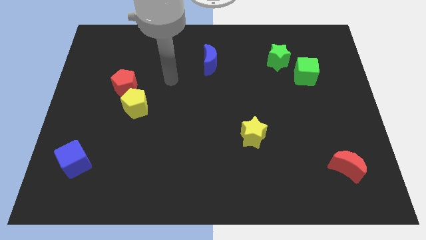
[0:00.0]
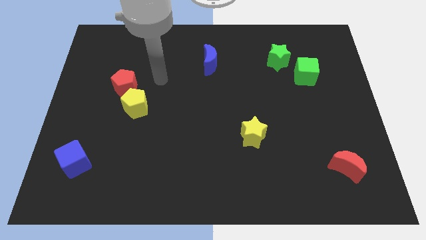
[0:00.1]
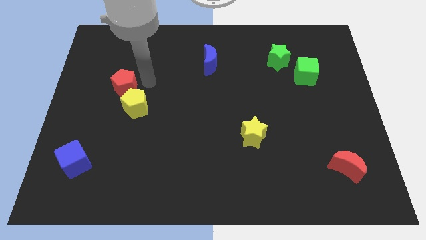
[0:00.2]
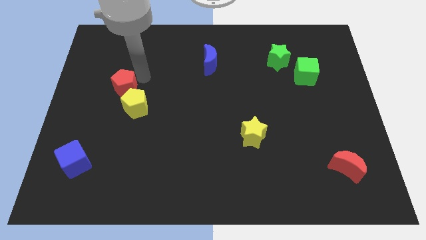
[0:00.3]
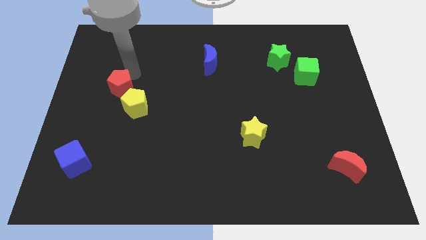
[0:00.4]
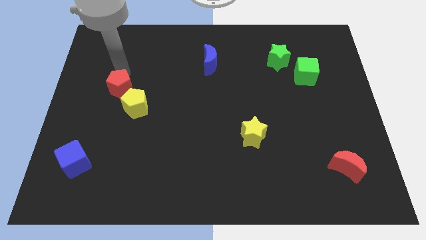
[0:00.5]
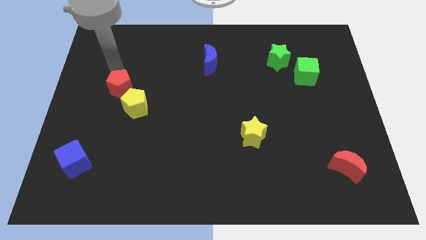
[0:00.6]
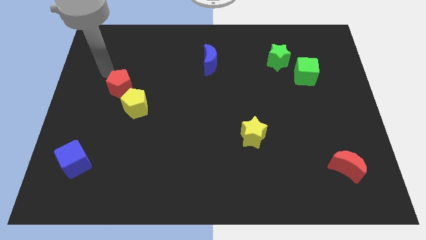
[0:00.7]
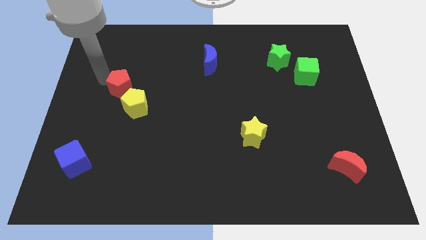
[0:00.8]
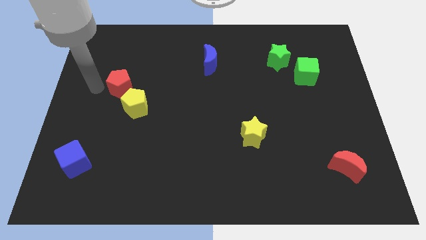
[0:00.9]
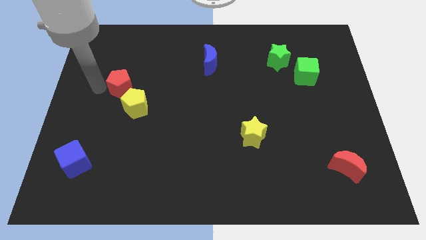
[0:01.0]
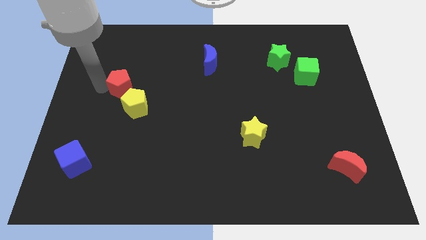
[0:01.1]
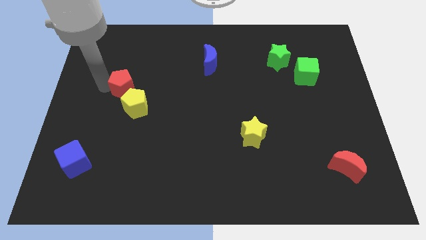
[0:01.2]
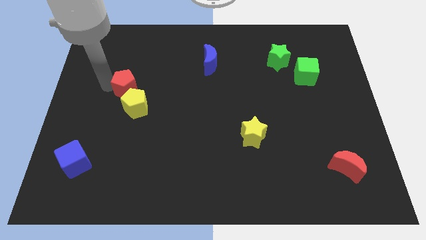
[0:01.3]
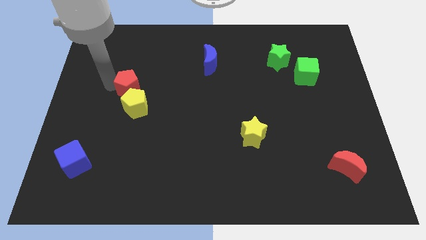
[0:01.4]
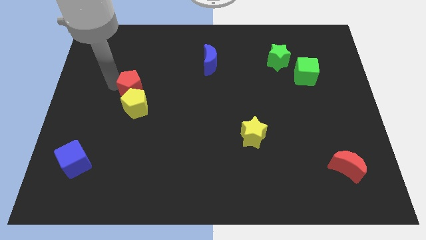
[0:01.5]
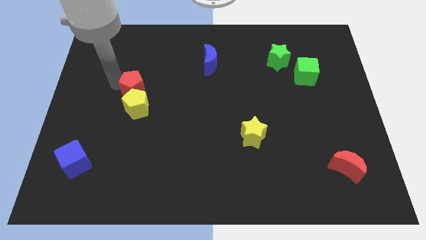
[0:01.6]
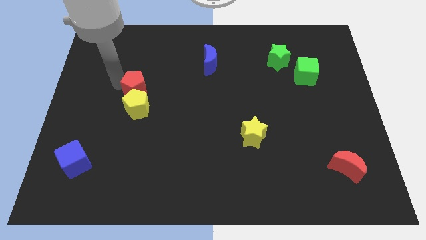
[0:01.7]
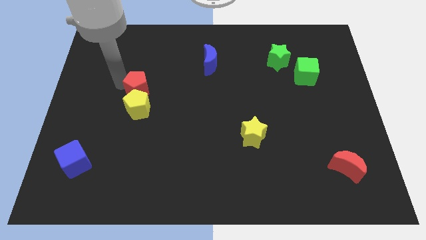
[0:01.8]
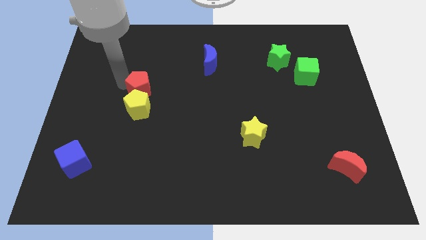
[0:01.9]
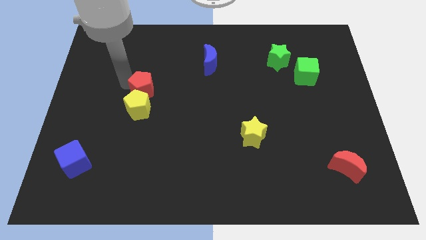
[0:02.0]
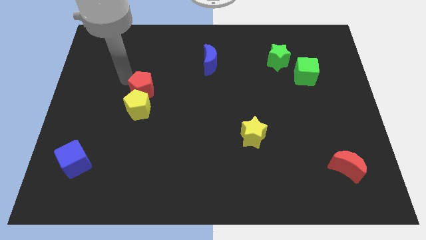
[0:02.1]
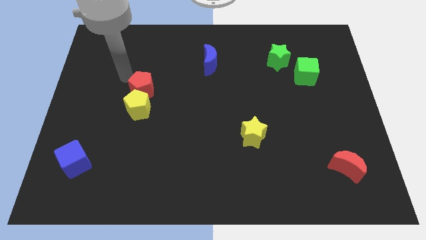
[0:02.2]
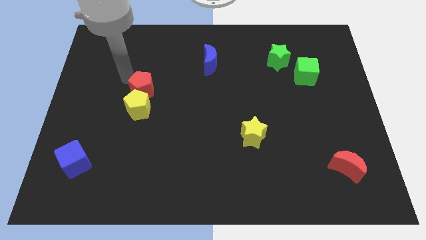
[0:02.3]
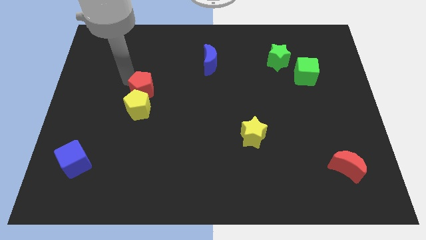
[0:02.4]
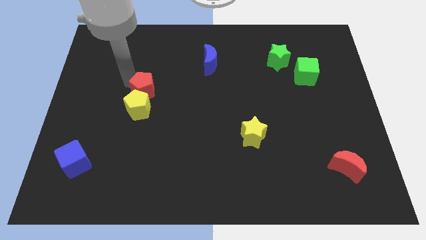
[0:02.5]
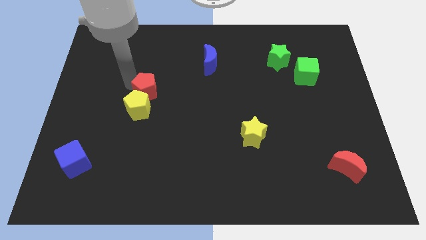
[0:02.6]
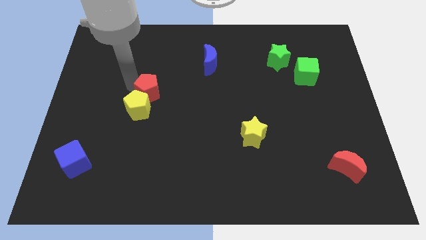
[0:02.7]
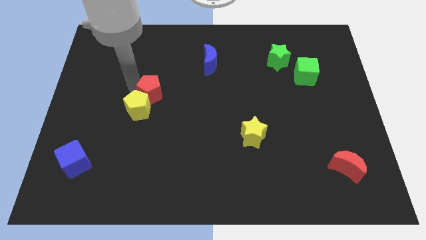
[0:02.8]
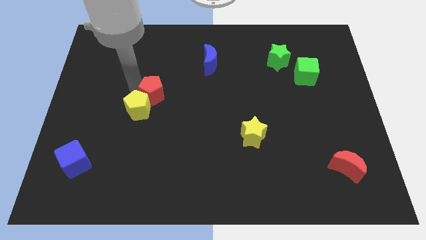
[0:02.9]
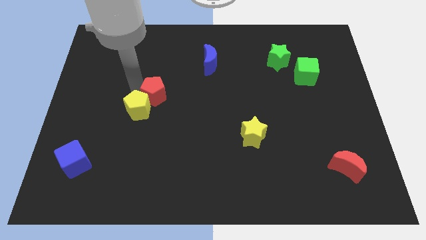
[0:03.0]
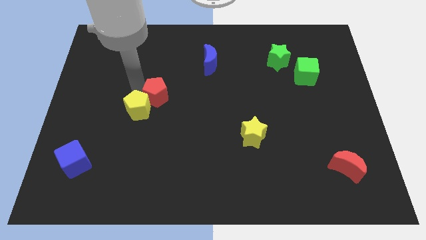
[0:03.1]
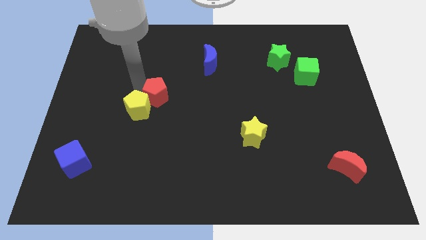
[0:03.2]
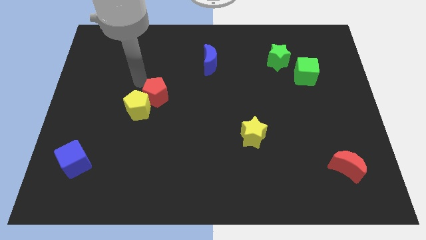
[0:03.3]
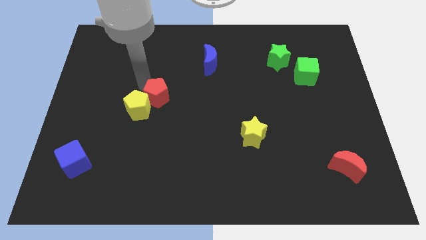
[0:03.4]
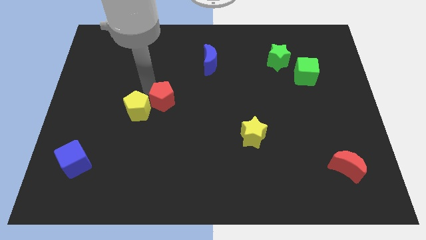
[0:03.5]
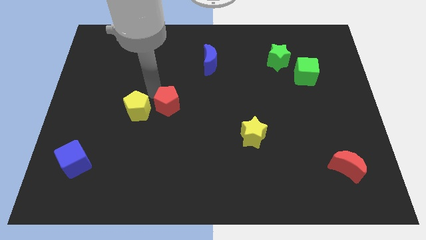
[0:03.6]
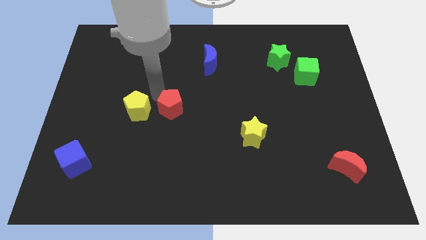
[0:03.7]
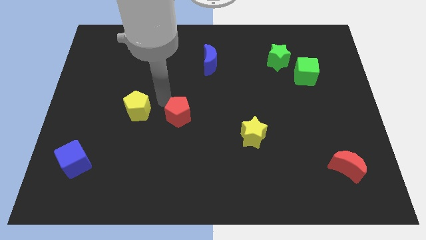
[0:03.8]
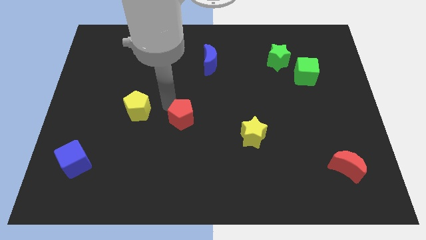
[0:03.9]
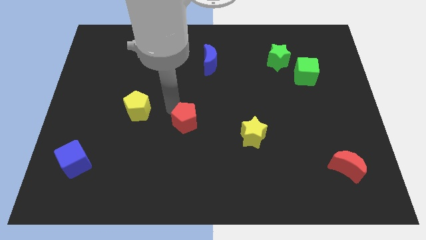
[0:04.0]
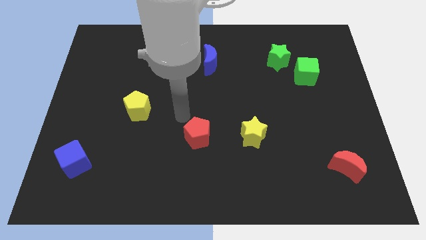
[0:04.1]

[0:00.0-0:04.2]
move the red pentagon down and right

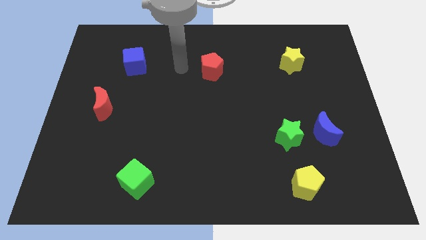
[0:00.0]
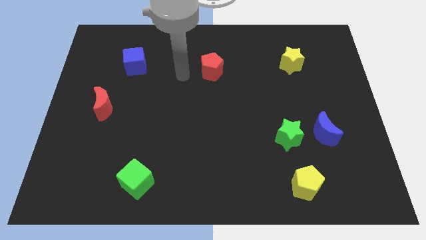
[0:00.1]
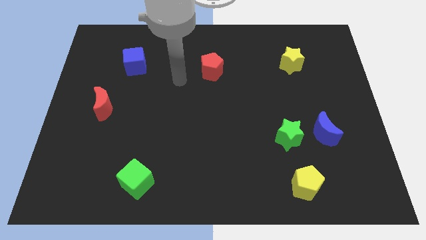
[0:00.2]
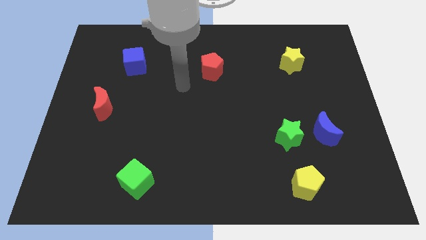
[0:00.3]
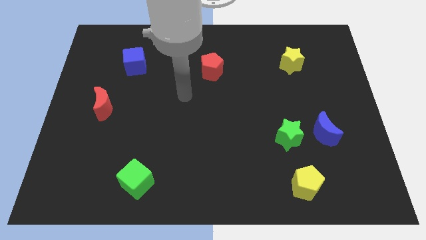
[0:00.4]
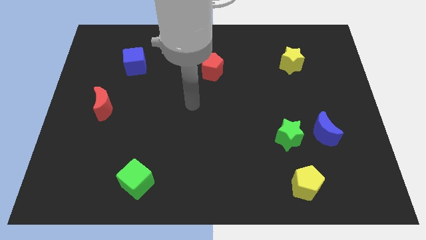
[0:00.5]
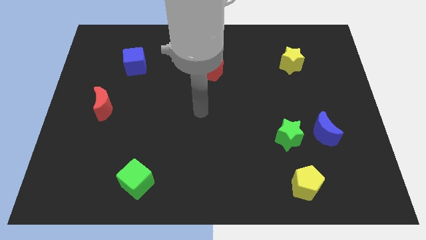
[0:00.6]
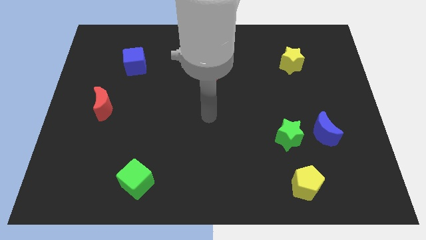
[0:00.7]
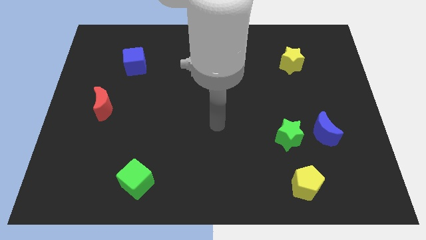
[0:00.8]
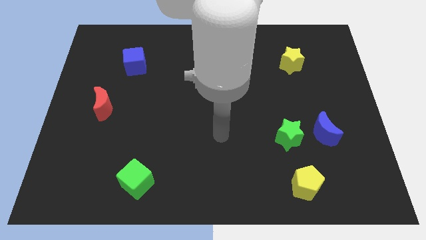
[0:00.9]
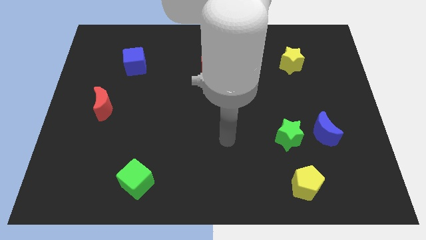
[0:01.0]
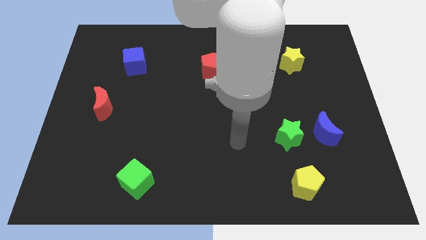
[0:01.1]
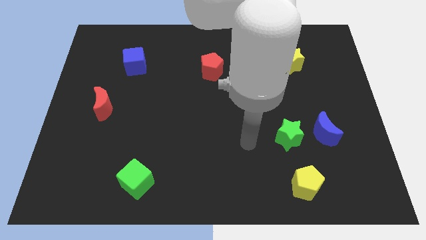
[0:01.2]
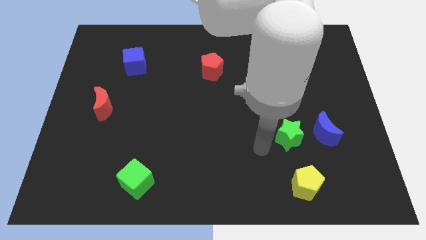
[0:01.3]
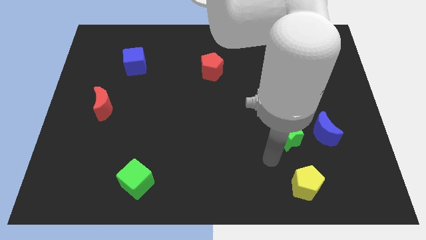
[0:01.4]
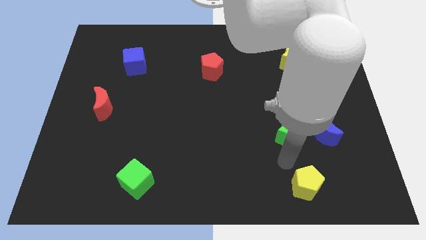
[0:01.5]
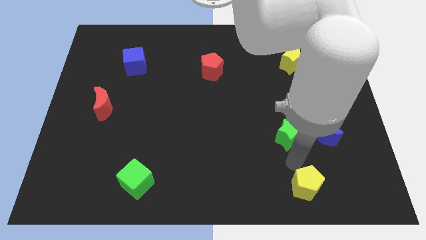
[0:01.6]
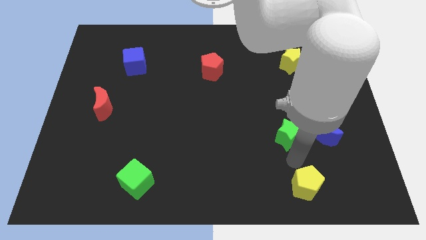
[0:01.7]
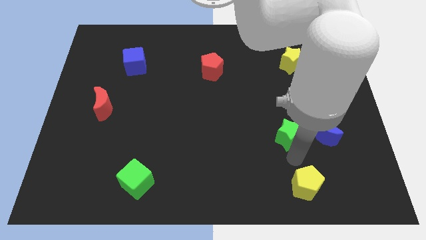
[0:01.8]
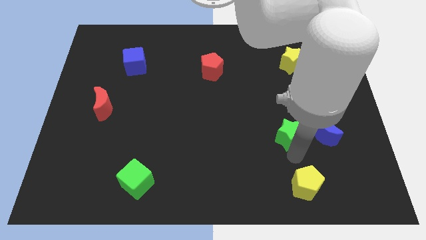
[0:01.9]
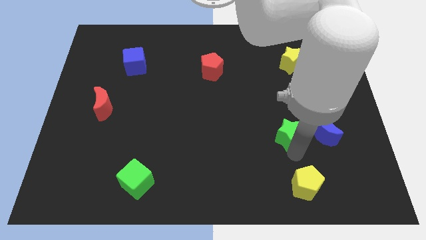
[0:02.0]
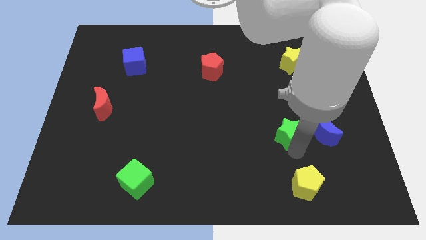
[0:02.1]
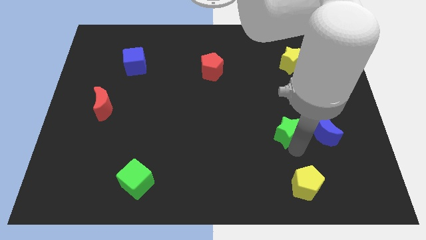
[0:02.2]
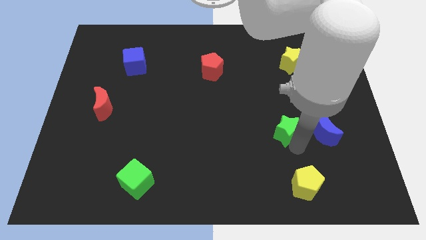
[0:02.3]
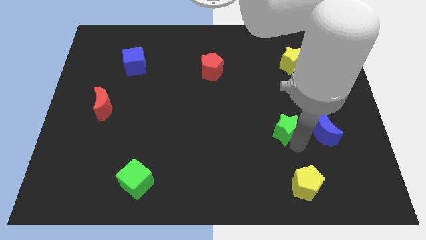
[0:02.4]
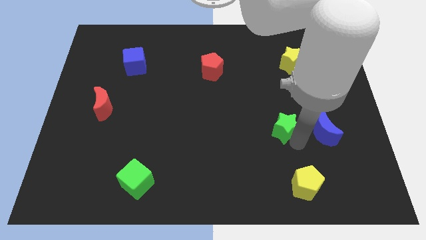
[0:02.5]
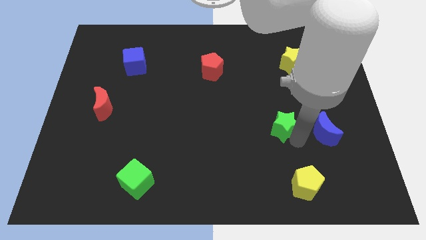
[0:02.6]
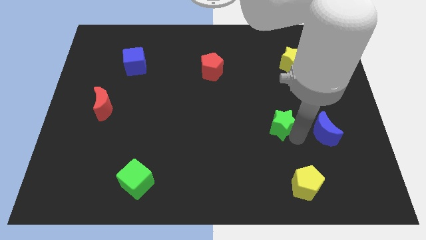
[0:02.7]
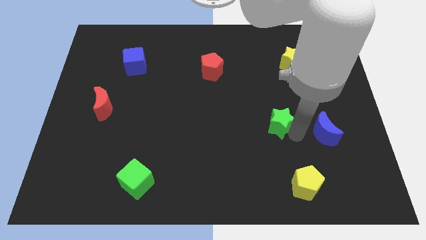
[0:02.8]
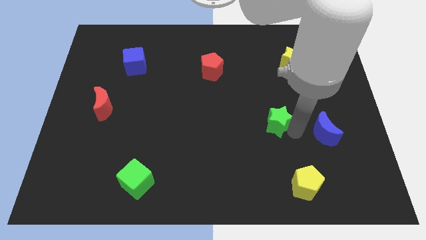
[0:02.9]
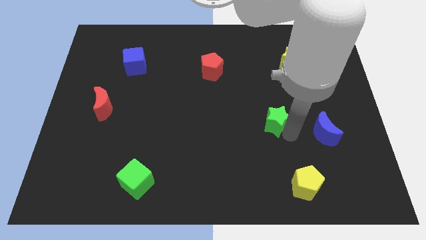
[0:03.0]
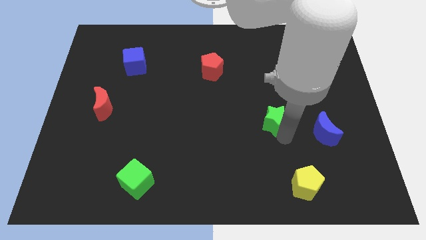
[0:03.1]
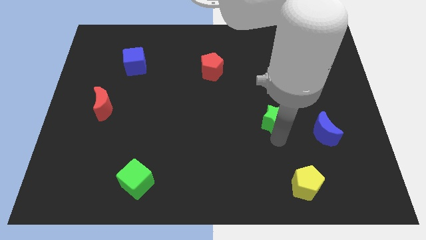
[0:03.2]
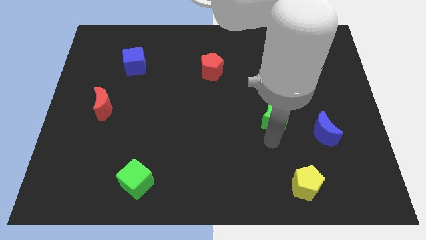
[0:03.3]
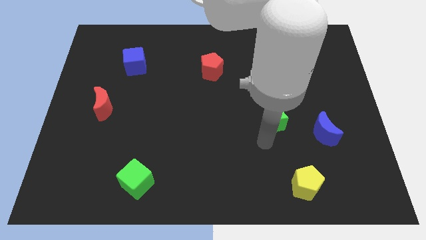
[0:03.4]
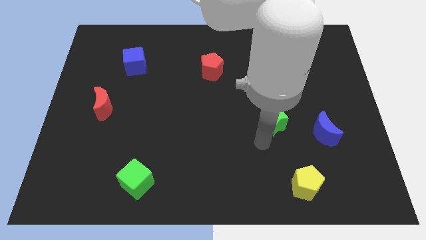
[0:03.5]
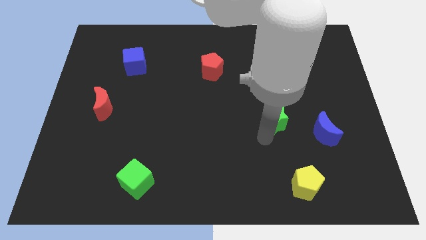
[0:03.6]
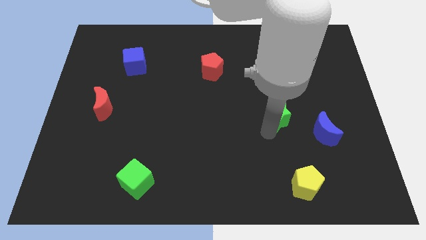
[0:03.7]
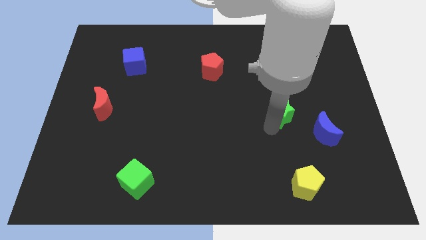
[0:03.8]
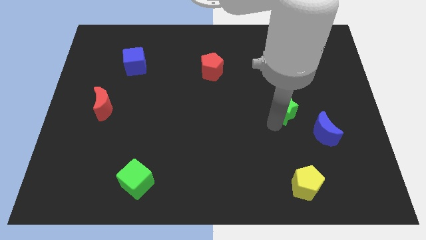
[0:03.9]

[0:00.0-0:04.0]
slide the green star upwards a bit

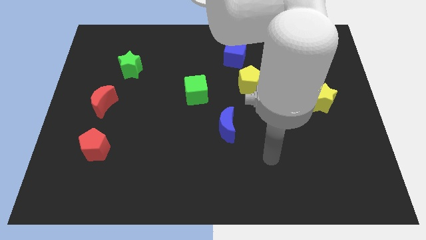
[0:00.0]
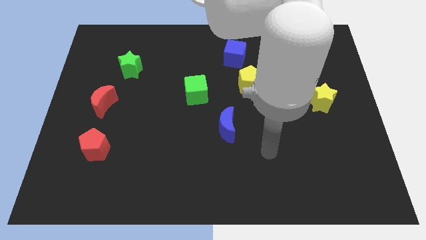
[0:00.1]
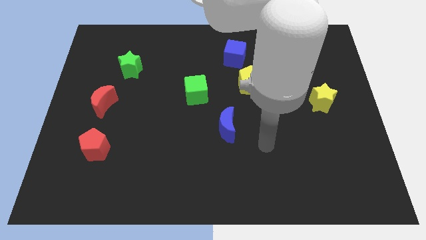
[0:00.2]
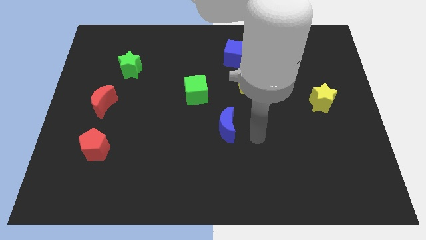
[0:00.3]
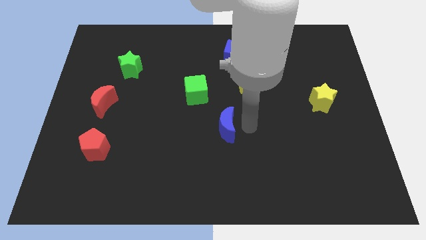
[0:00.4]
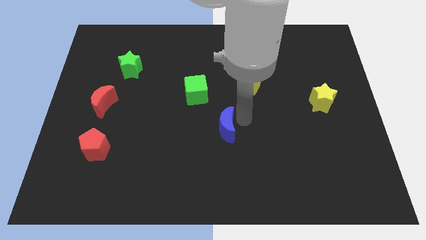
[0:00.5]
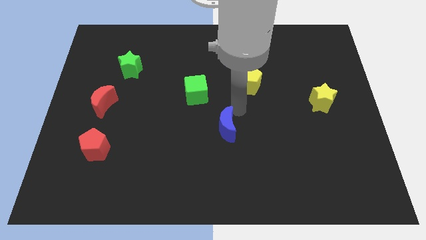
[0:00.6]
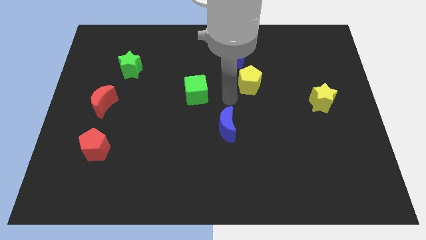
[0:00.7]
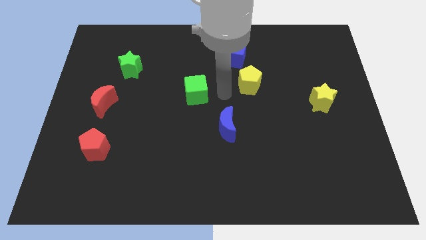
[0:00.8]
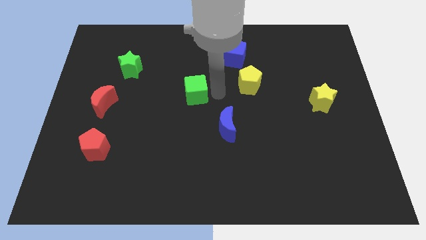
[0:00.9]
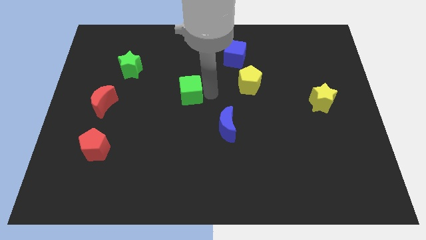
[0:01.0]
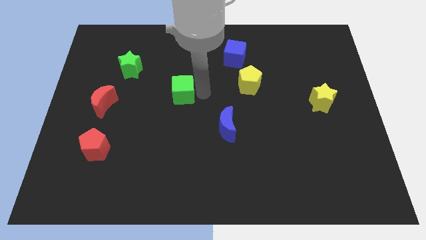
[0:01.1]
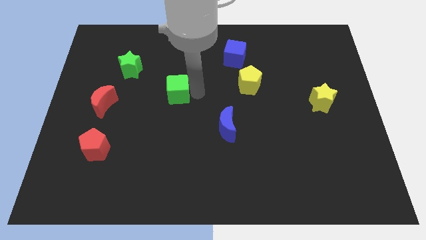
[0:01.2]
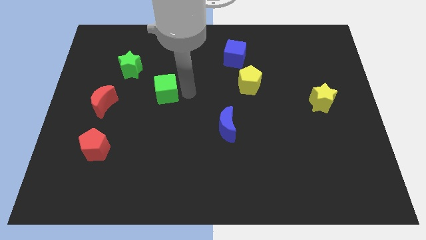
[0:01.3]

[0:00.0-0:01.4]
slightly push the green cube left
